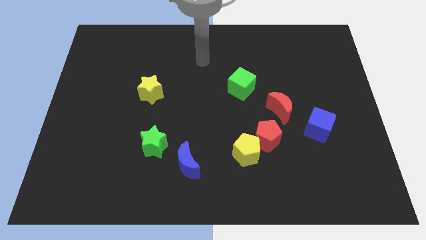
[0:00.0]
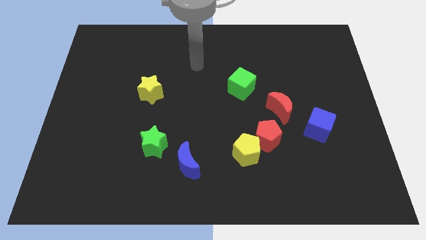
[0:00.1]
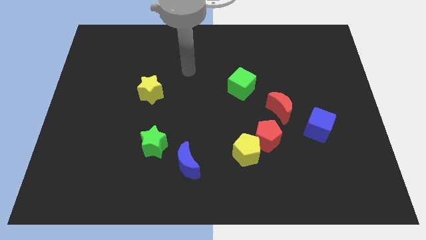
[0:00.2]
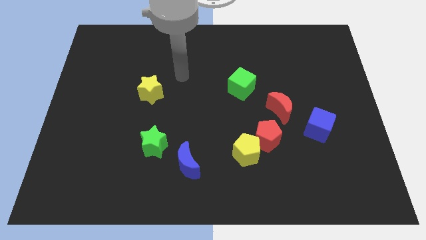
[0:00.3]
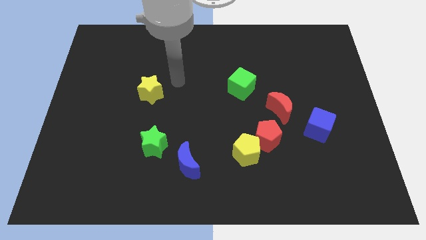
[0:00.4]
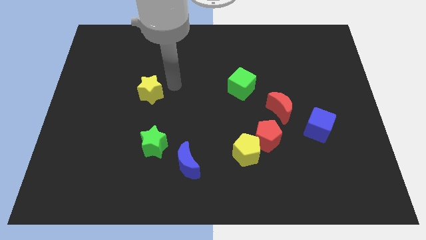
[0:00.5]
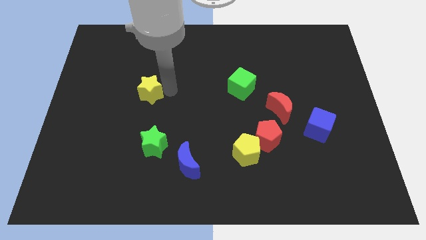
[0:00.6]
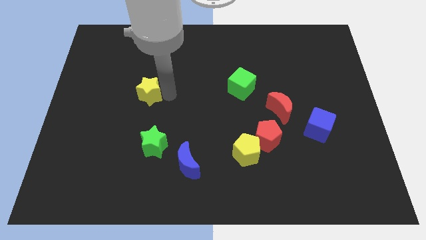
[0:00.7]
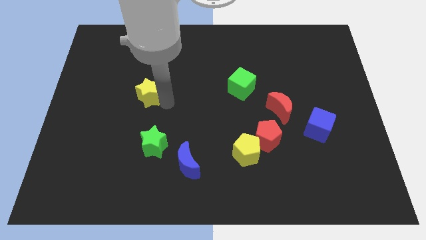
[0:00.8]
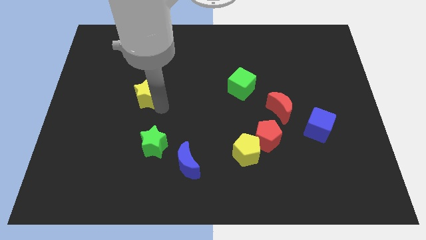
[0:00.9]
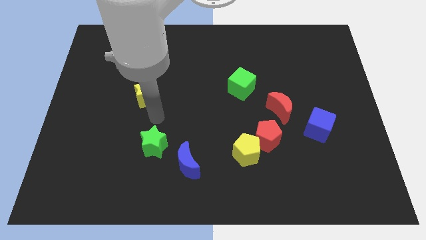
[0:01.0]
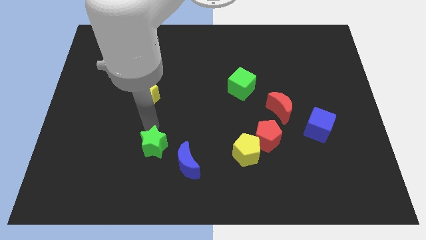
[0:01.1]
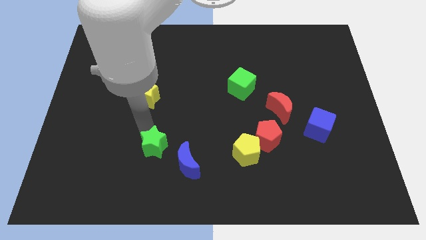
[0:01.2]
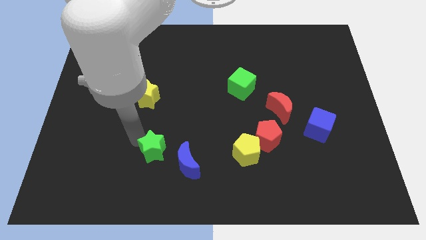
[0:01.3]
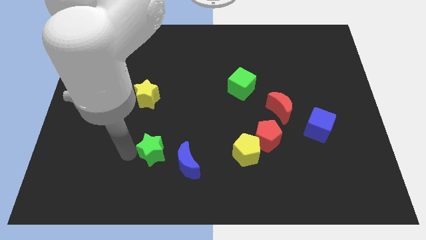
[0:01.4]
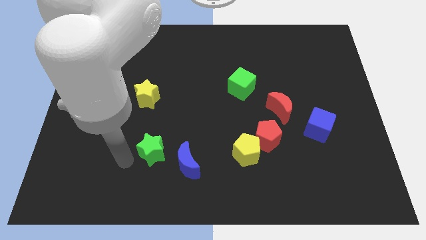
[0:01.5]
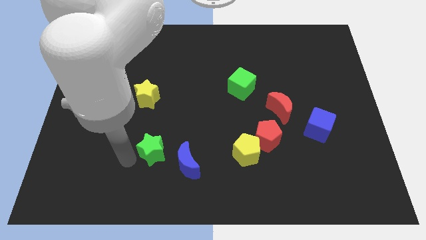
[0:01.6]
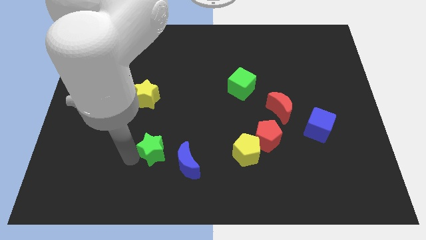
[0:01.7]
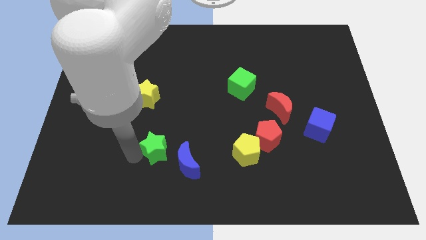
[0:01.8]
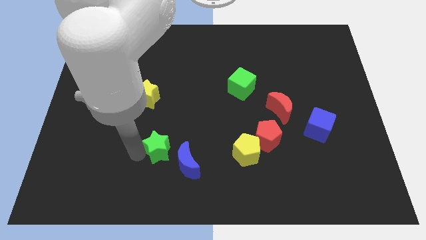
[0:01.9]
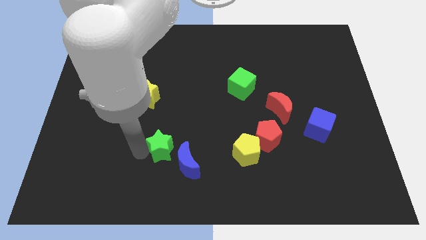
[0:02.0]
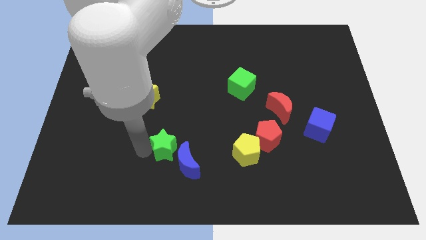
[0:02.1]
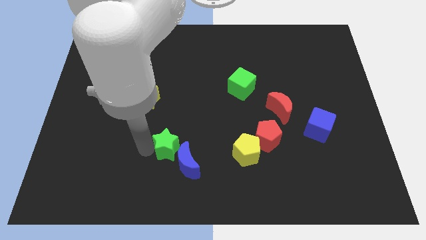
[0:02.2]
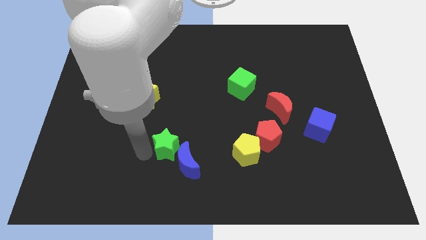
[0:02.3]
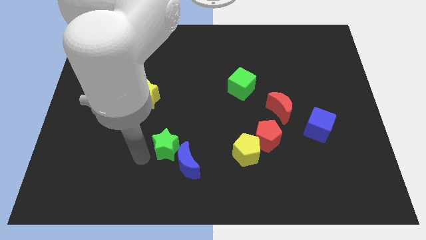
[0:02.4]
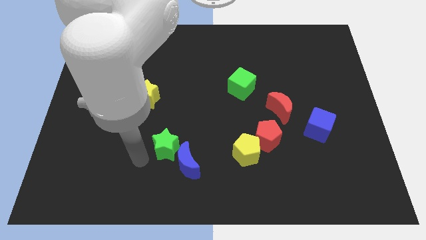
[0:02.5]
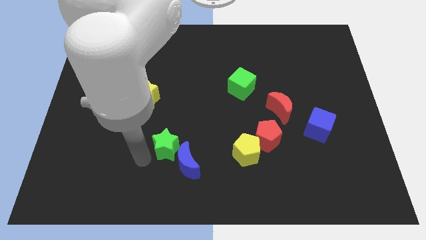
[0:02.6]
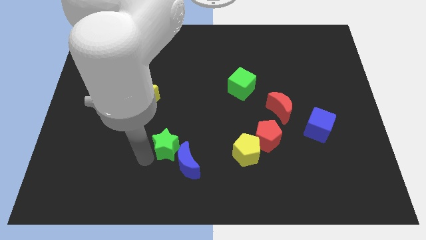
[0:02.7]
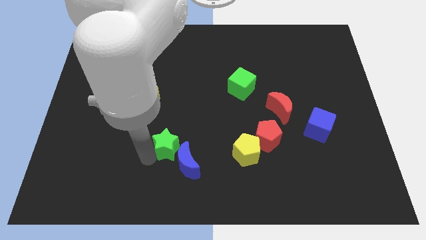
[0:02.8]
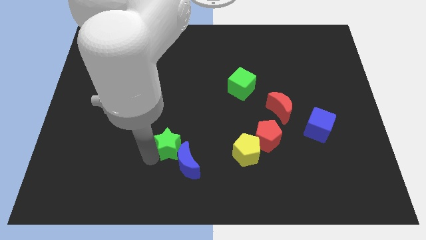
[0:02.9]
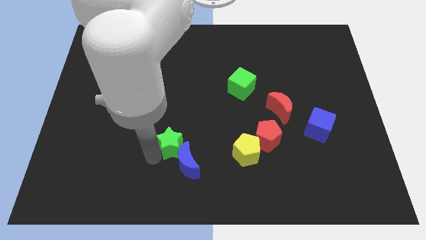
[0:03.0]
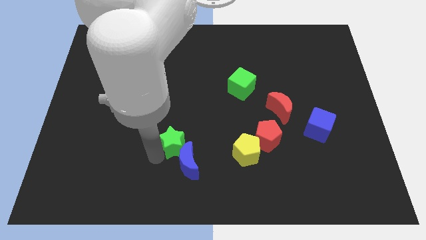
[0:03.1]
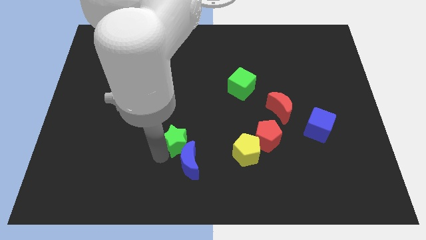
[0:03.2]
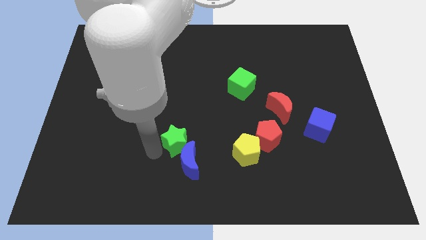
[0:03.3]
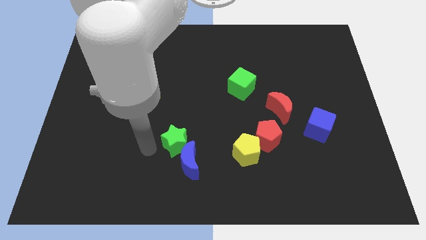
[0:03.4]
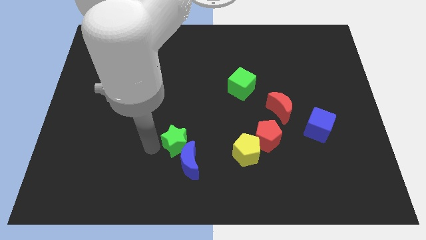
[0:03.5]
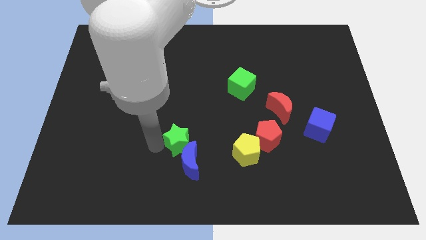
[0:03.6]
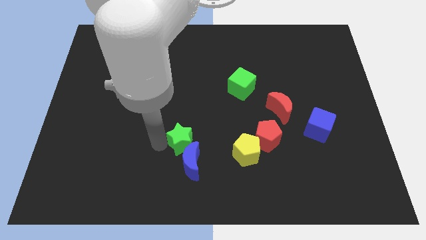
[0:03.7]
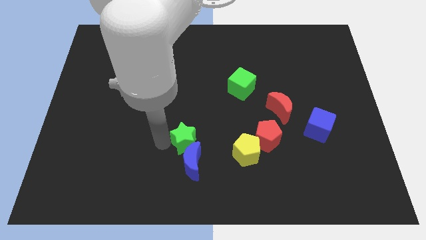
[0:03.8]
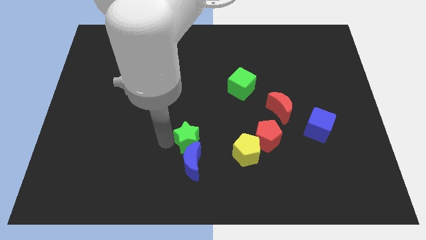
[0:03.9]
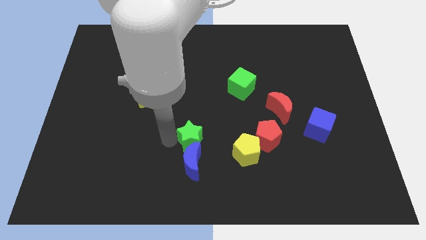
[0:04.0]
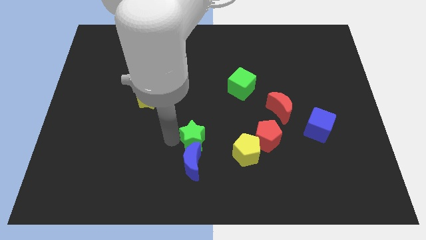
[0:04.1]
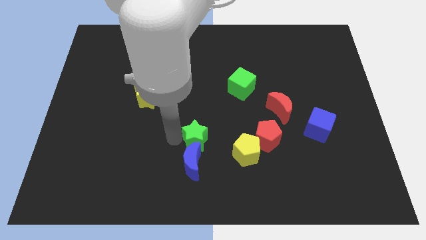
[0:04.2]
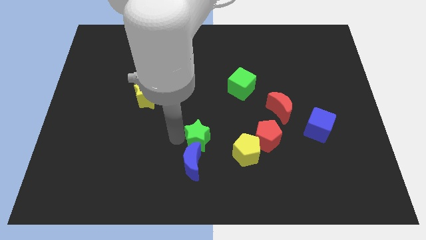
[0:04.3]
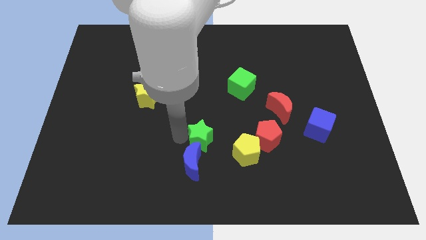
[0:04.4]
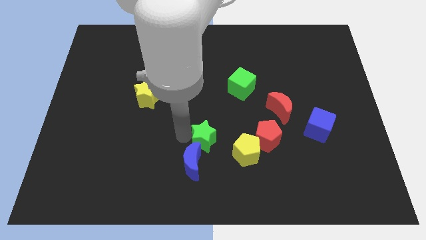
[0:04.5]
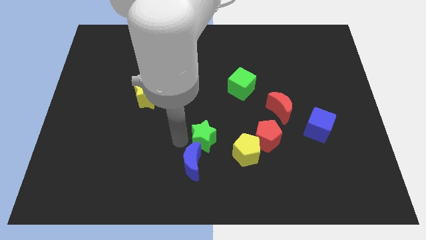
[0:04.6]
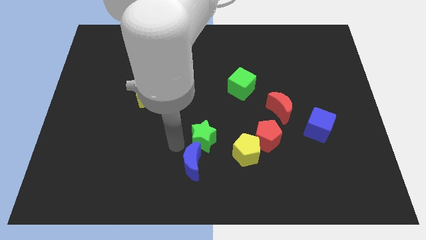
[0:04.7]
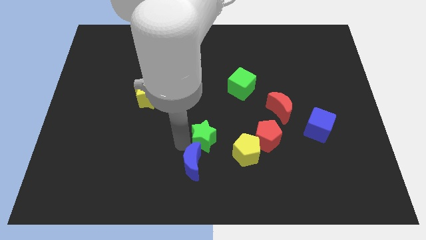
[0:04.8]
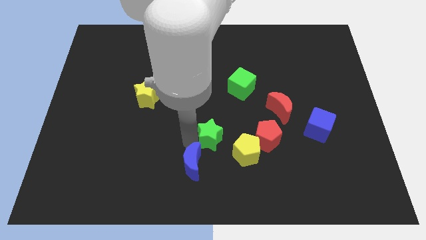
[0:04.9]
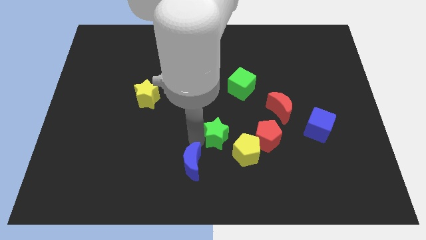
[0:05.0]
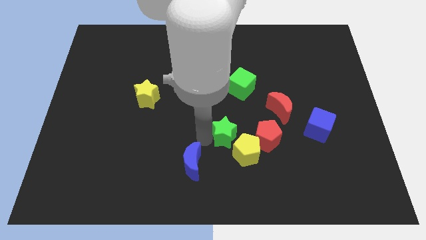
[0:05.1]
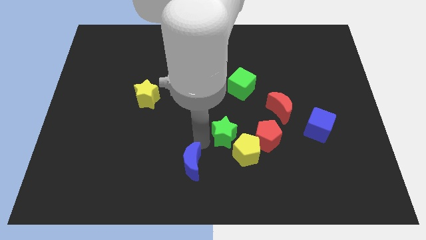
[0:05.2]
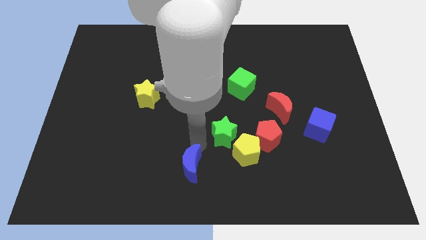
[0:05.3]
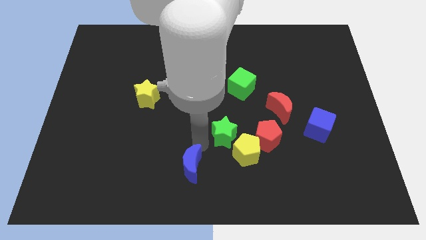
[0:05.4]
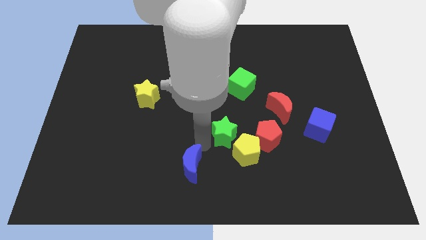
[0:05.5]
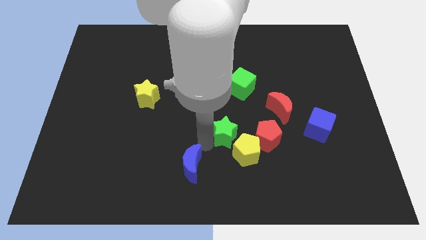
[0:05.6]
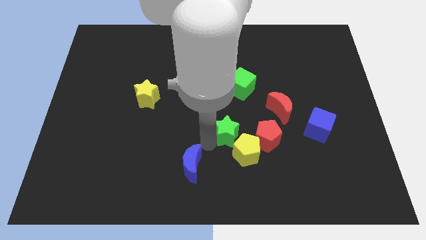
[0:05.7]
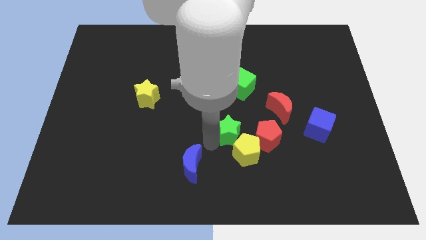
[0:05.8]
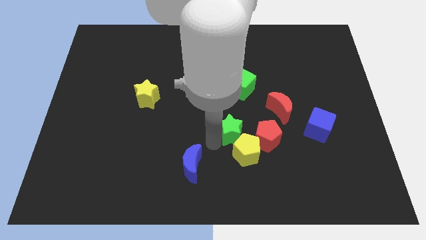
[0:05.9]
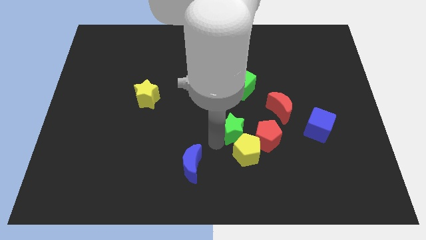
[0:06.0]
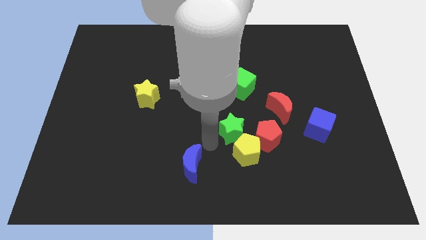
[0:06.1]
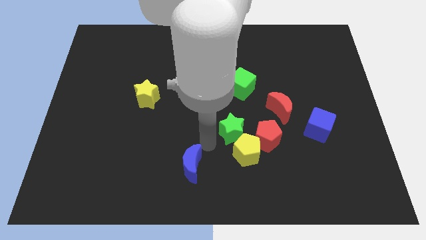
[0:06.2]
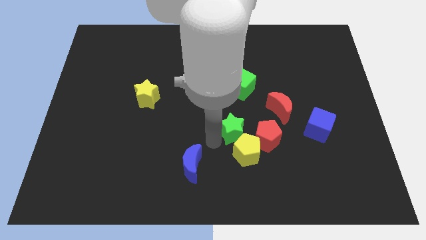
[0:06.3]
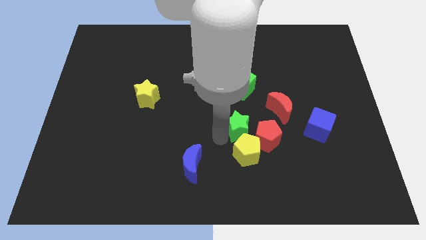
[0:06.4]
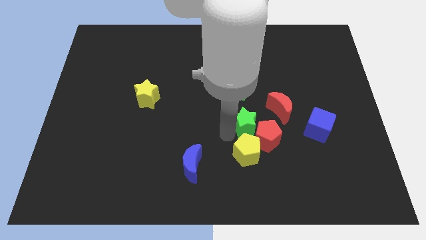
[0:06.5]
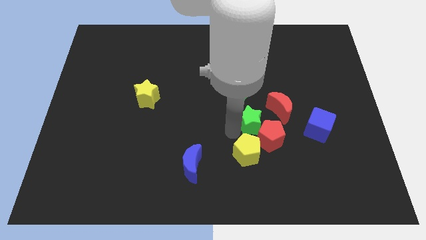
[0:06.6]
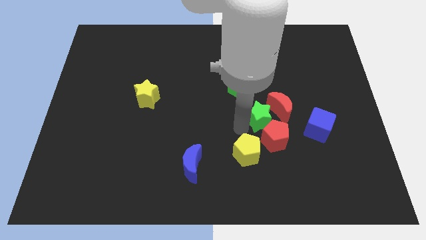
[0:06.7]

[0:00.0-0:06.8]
slide the green star towards the red moon
